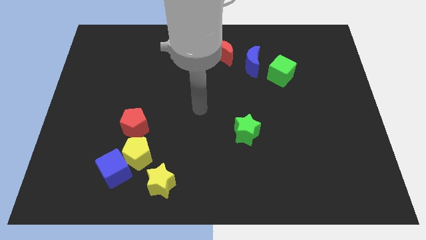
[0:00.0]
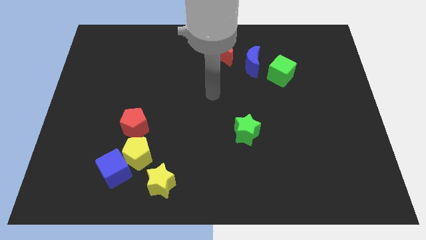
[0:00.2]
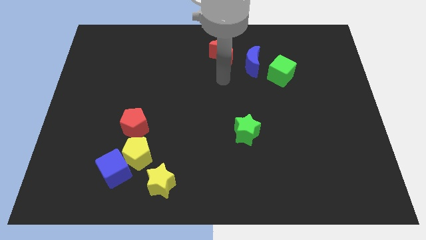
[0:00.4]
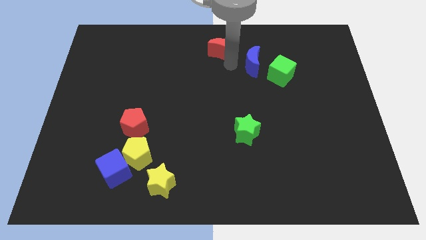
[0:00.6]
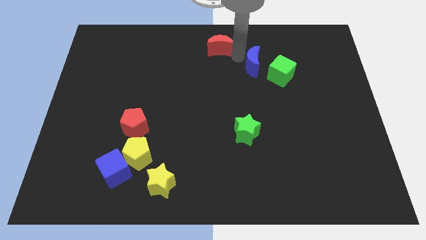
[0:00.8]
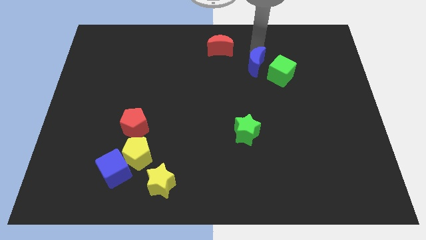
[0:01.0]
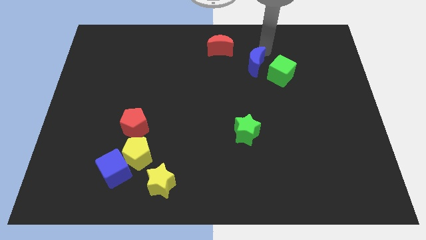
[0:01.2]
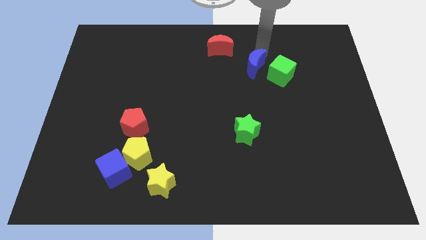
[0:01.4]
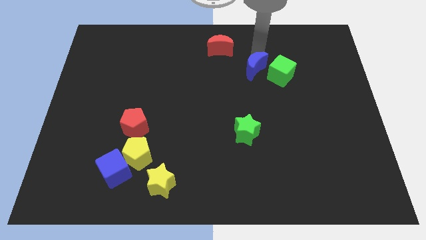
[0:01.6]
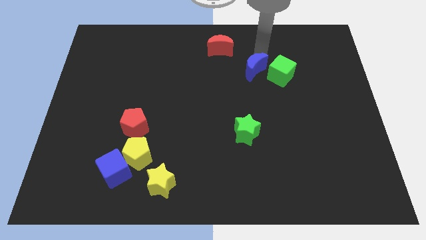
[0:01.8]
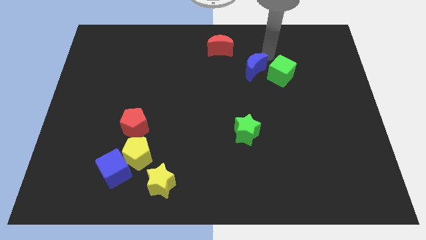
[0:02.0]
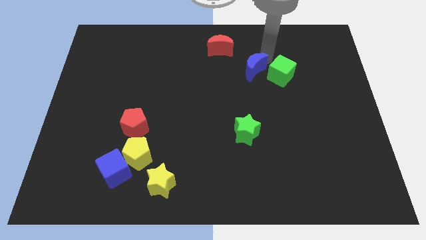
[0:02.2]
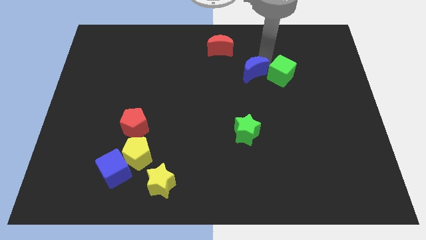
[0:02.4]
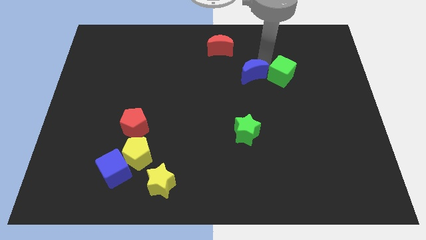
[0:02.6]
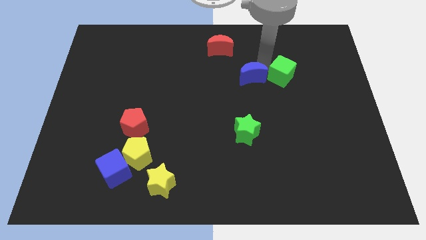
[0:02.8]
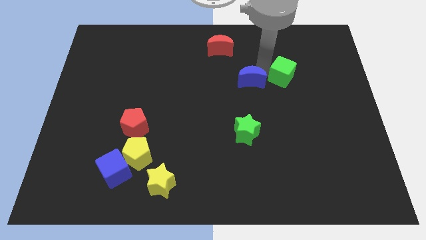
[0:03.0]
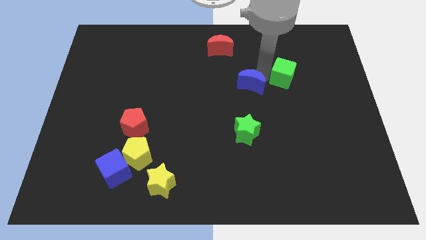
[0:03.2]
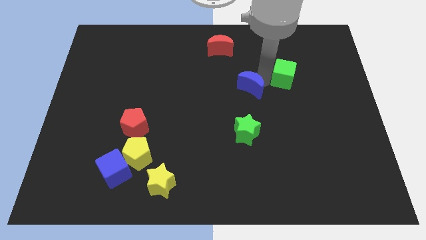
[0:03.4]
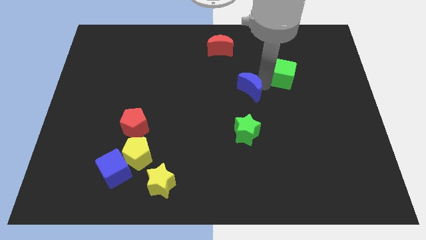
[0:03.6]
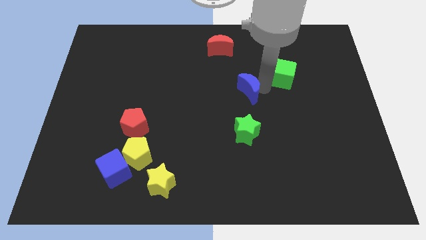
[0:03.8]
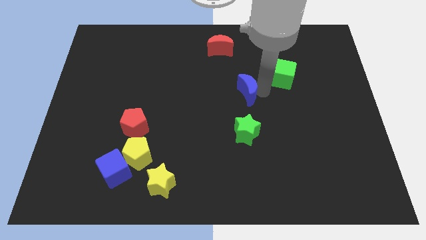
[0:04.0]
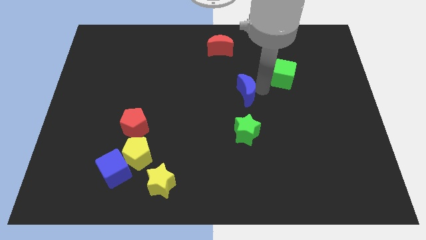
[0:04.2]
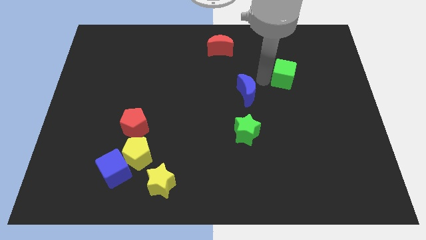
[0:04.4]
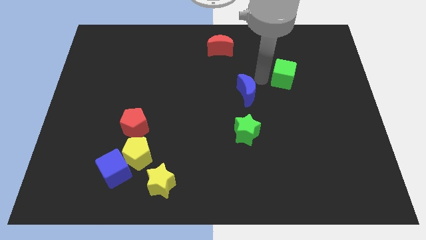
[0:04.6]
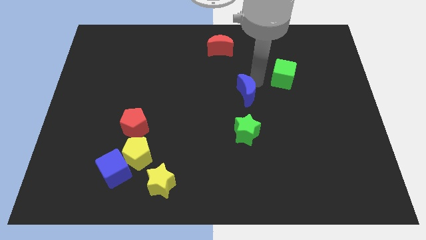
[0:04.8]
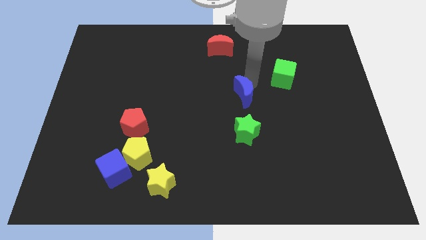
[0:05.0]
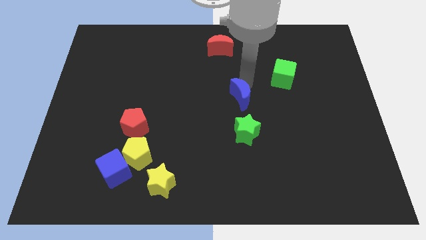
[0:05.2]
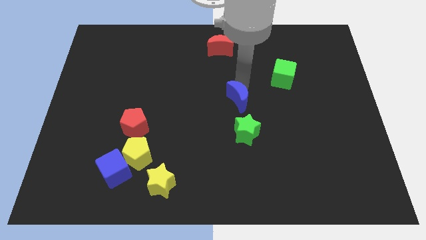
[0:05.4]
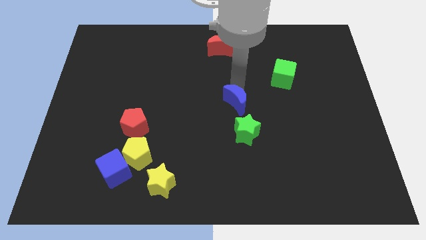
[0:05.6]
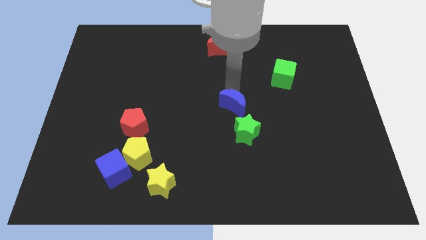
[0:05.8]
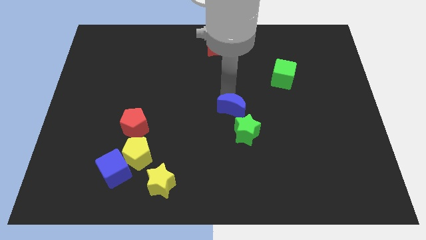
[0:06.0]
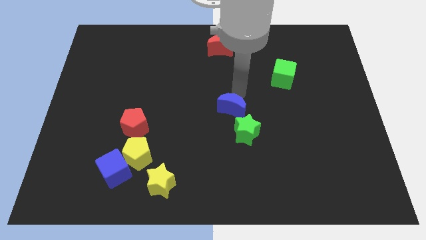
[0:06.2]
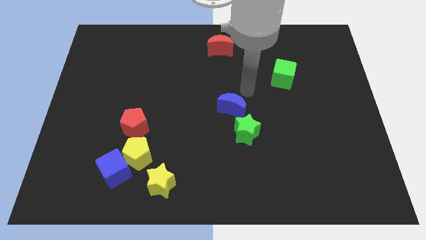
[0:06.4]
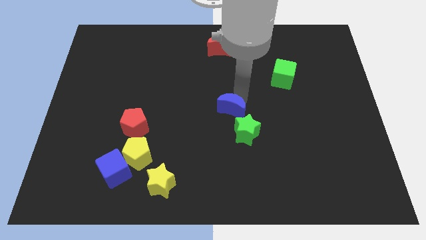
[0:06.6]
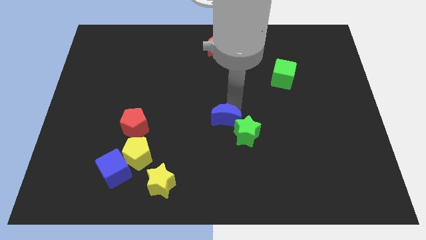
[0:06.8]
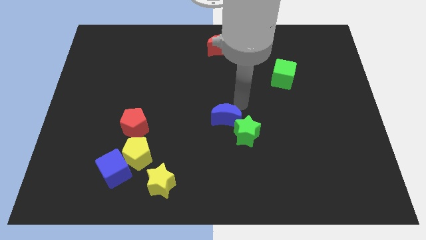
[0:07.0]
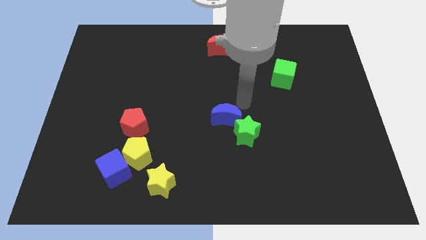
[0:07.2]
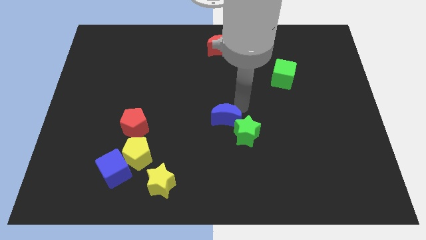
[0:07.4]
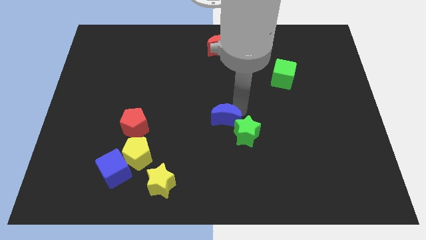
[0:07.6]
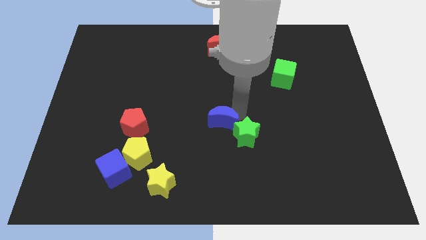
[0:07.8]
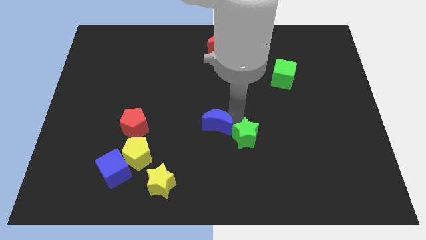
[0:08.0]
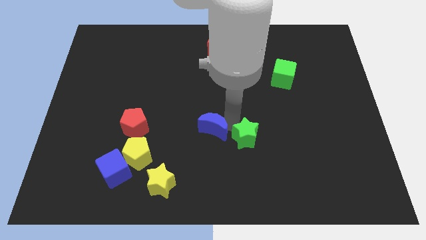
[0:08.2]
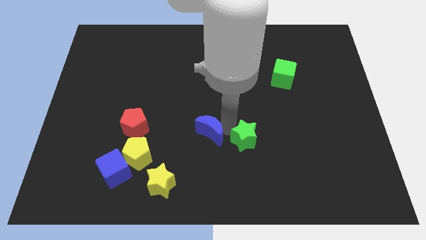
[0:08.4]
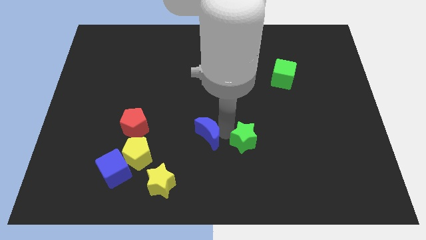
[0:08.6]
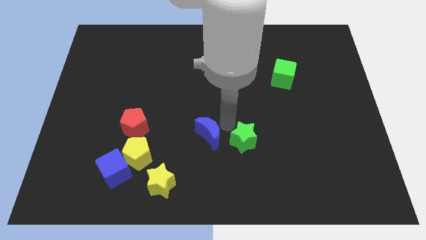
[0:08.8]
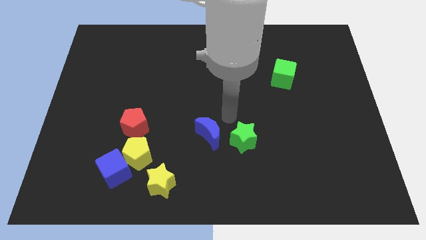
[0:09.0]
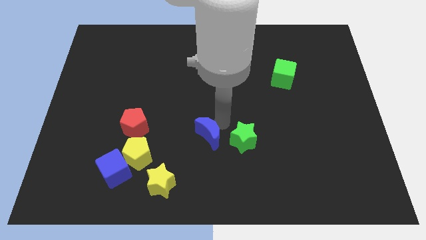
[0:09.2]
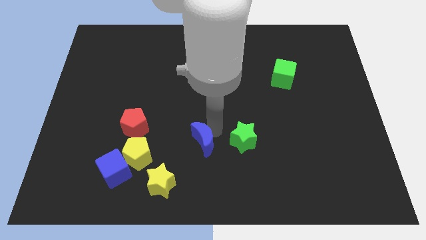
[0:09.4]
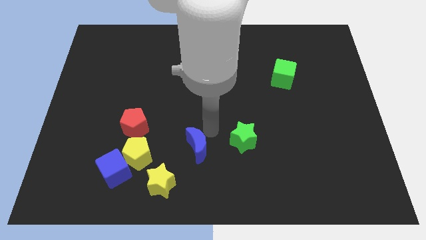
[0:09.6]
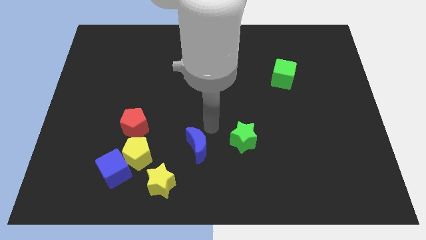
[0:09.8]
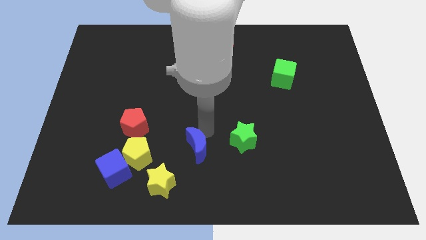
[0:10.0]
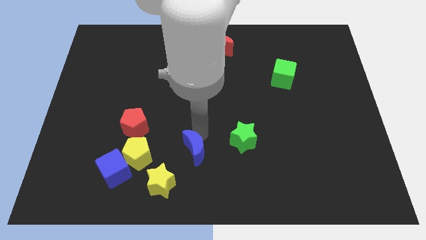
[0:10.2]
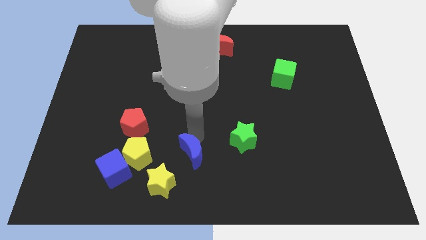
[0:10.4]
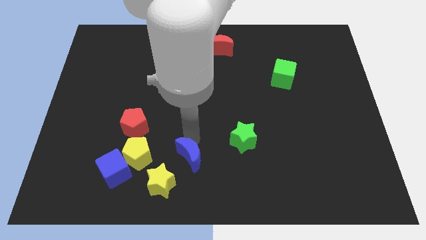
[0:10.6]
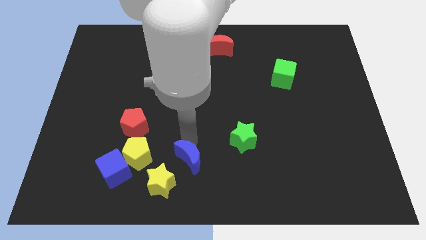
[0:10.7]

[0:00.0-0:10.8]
slide the blue moon to the right of the blue cube

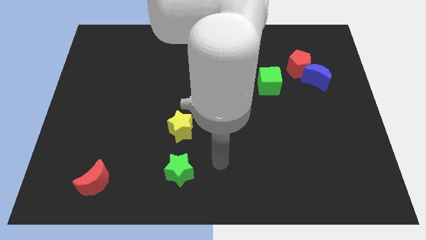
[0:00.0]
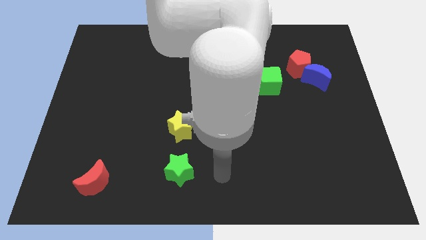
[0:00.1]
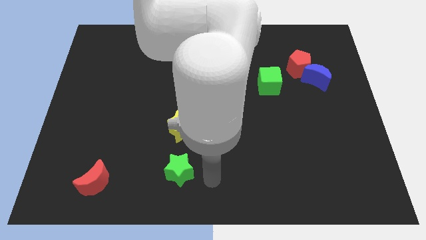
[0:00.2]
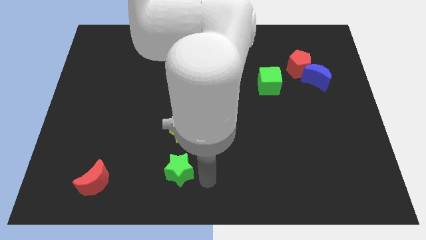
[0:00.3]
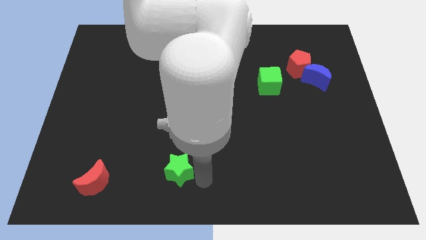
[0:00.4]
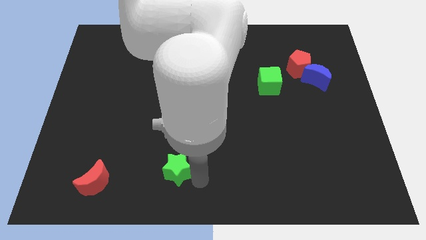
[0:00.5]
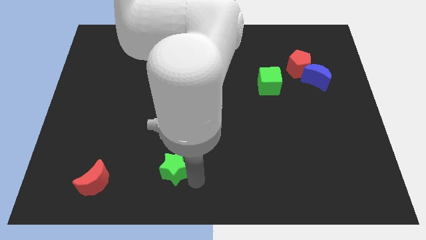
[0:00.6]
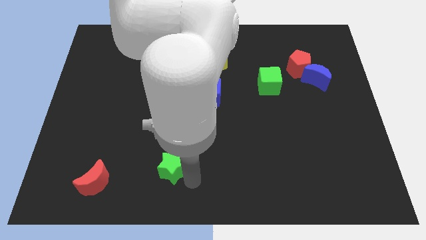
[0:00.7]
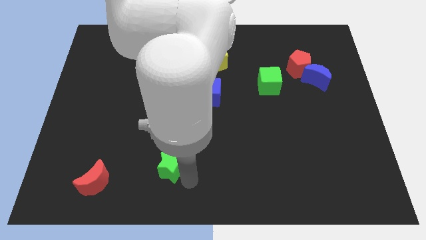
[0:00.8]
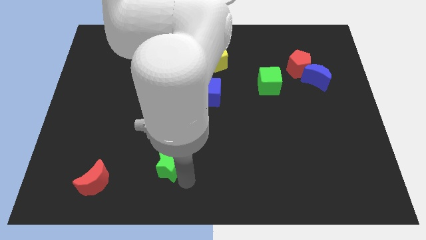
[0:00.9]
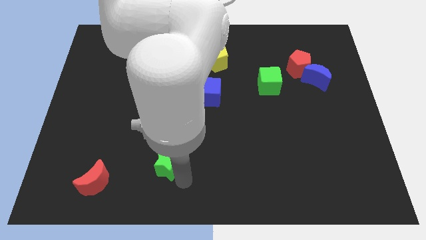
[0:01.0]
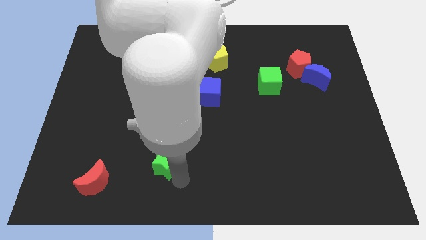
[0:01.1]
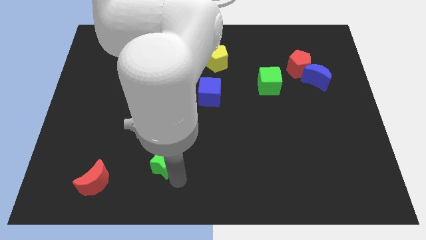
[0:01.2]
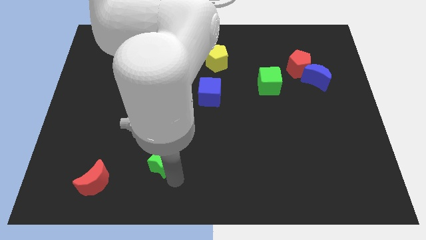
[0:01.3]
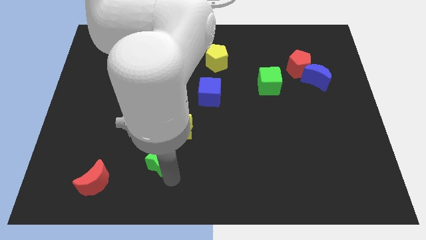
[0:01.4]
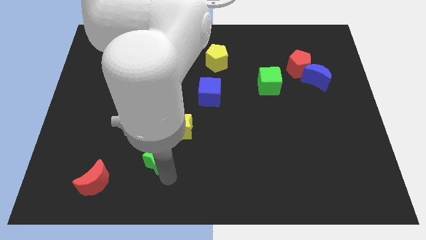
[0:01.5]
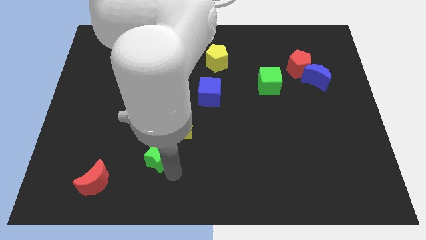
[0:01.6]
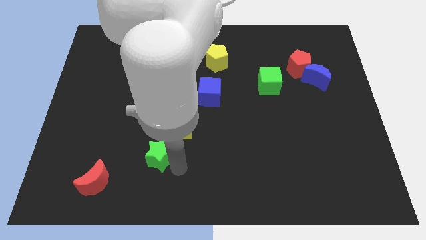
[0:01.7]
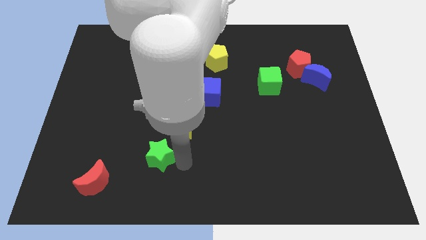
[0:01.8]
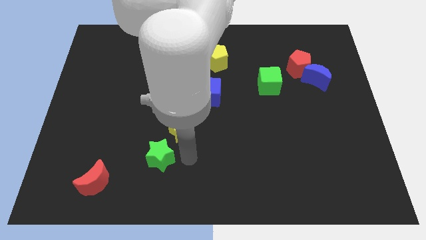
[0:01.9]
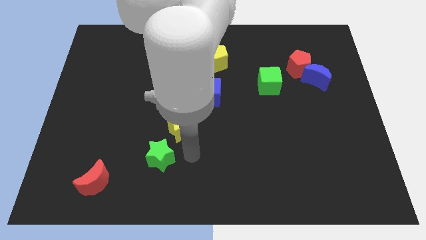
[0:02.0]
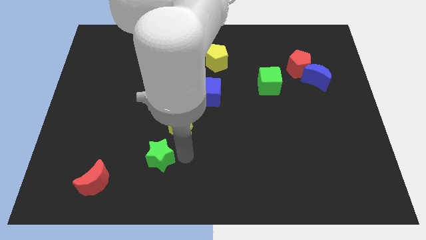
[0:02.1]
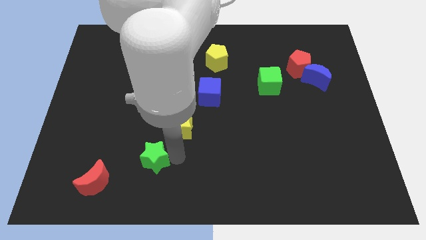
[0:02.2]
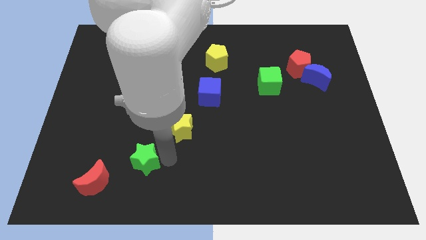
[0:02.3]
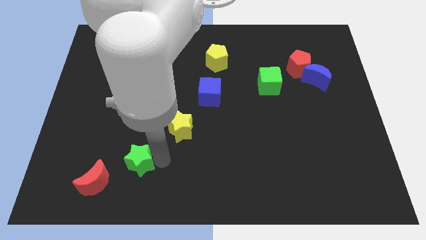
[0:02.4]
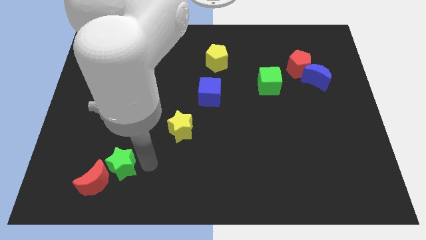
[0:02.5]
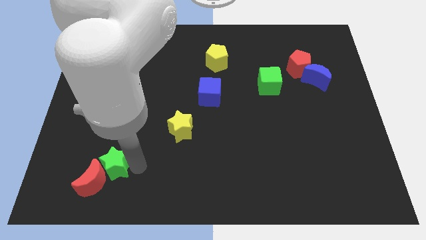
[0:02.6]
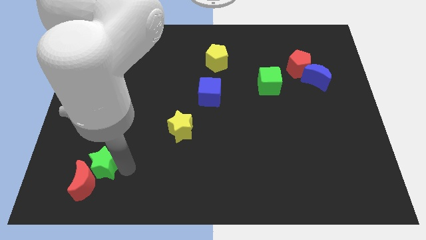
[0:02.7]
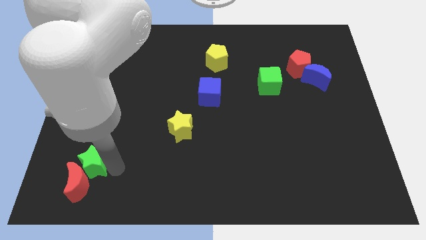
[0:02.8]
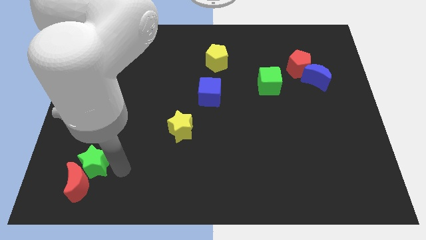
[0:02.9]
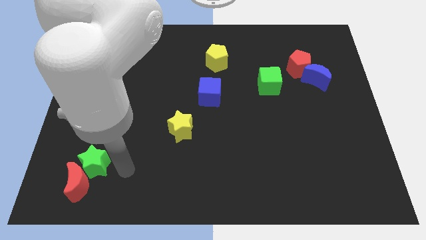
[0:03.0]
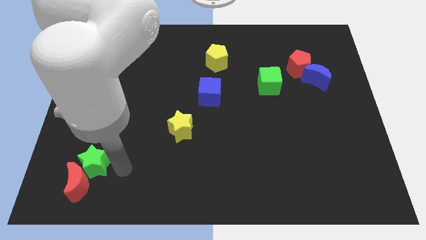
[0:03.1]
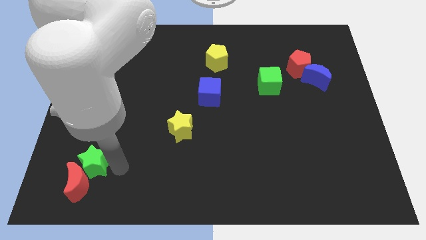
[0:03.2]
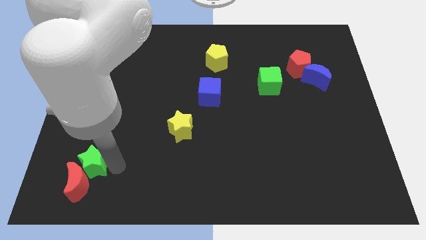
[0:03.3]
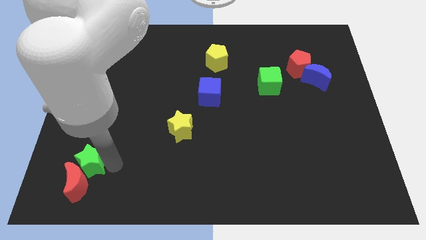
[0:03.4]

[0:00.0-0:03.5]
move the green star to the top left side of the red moon
